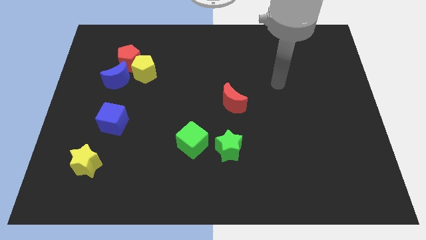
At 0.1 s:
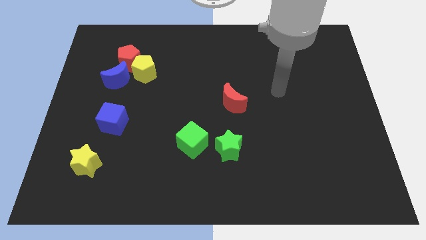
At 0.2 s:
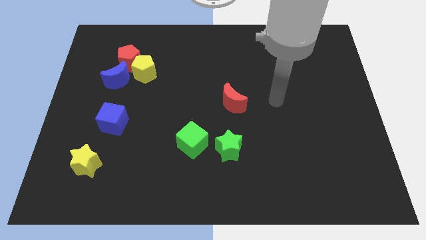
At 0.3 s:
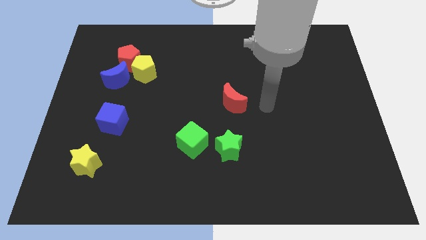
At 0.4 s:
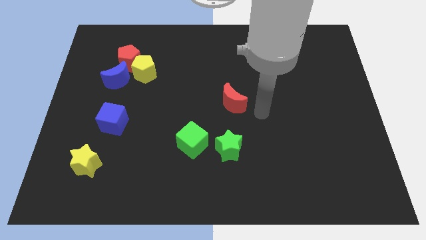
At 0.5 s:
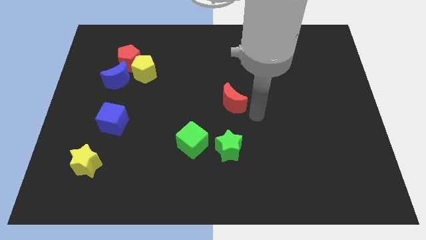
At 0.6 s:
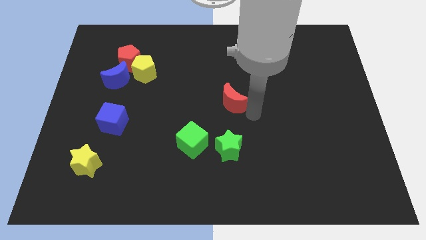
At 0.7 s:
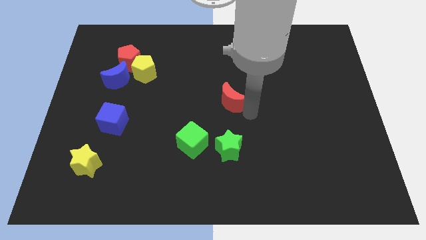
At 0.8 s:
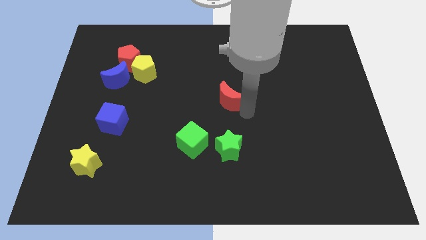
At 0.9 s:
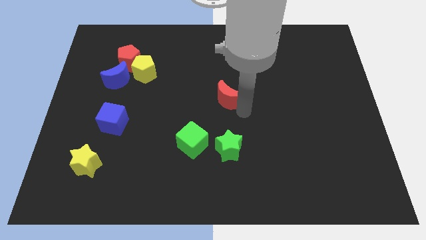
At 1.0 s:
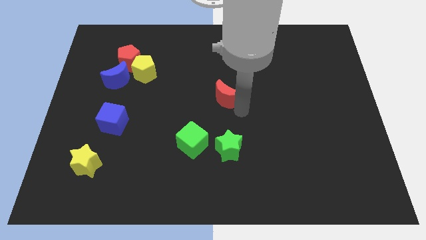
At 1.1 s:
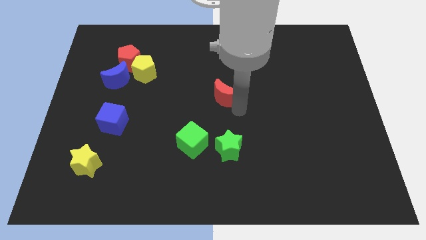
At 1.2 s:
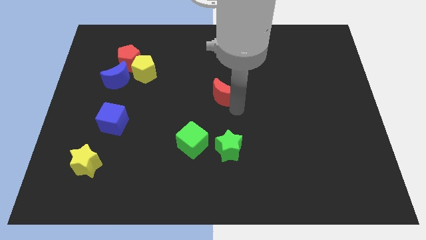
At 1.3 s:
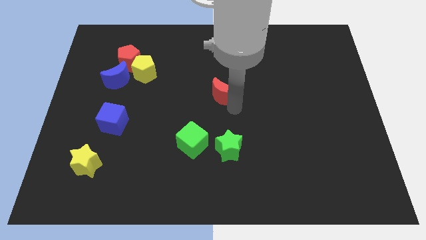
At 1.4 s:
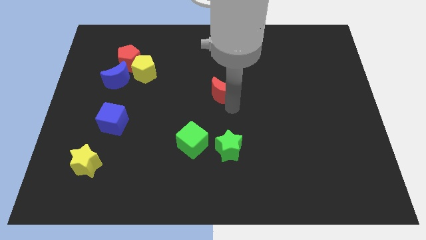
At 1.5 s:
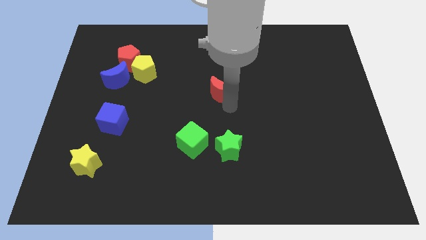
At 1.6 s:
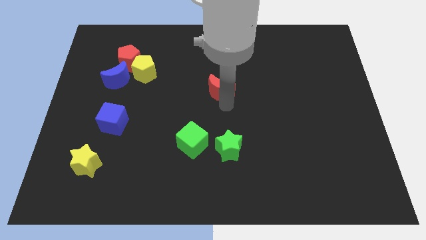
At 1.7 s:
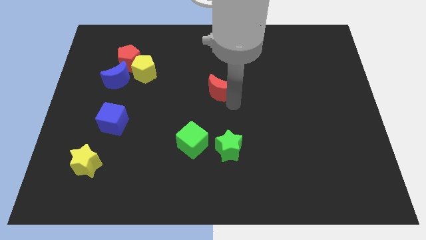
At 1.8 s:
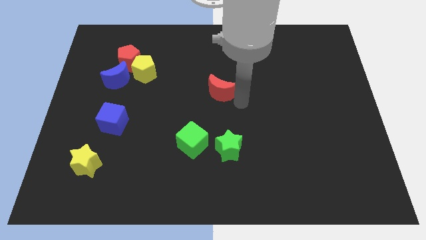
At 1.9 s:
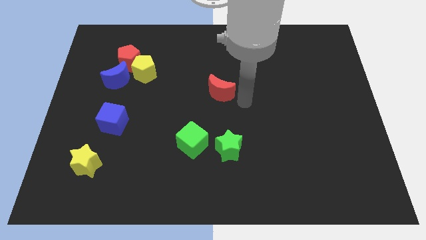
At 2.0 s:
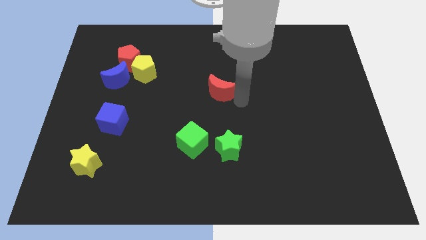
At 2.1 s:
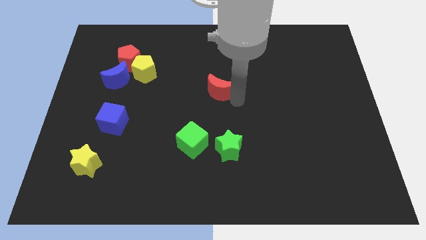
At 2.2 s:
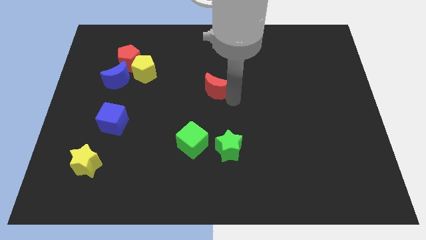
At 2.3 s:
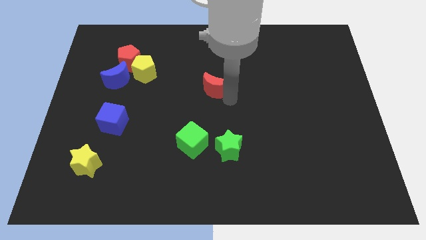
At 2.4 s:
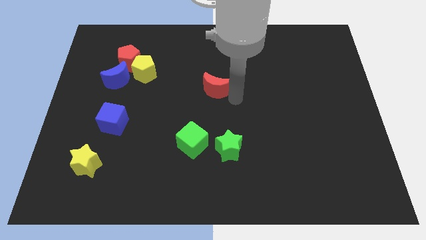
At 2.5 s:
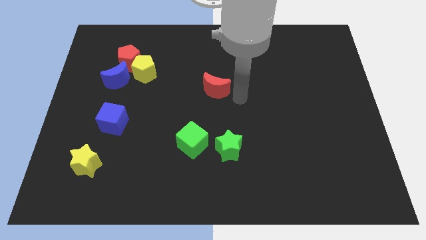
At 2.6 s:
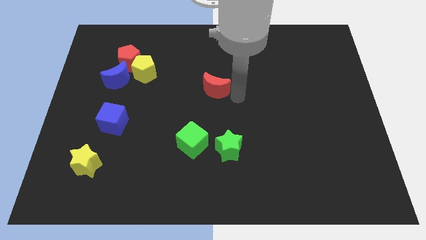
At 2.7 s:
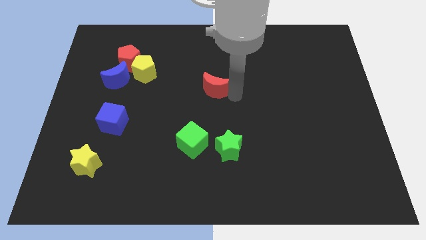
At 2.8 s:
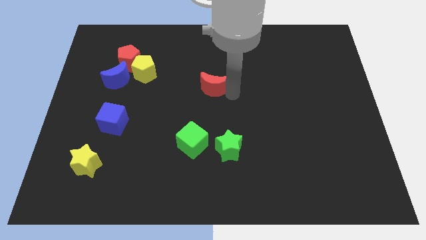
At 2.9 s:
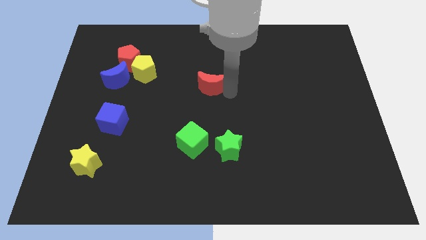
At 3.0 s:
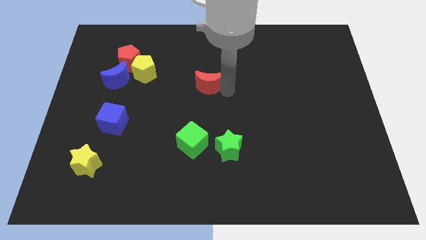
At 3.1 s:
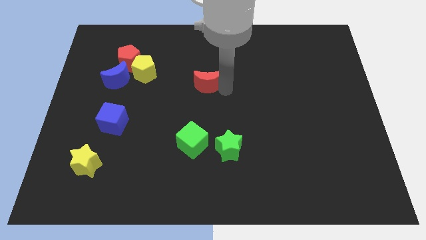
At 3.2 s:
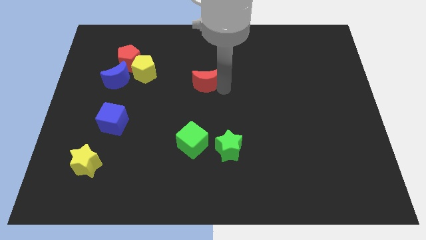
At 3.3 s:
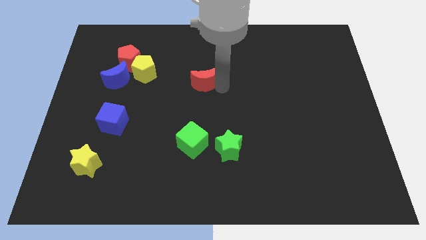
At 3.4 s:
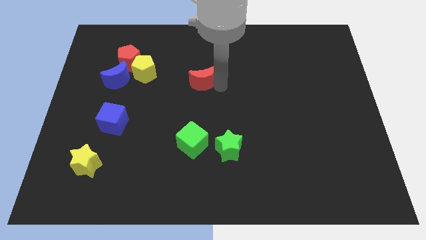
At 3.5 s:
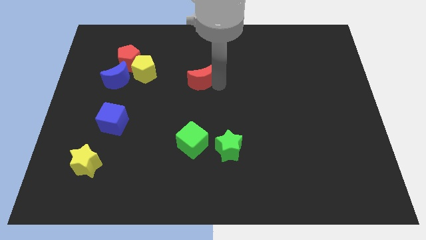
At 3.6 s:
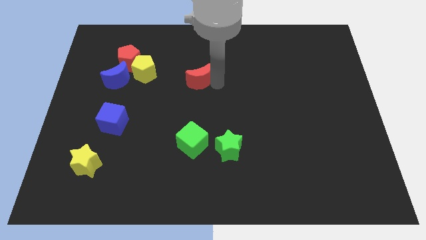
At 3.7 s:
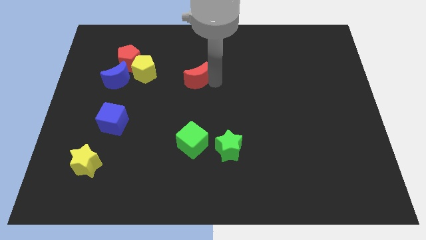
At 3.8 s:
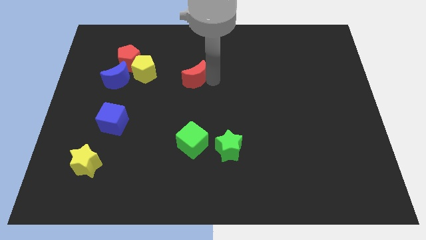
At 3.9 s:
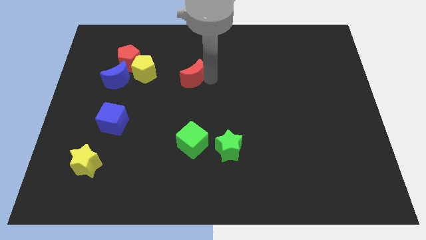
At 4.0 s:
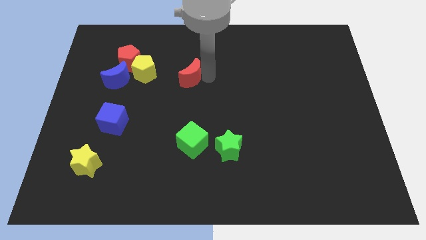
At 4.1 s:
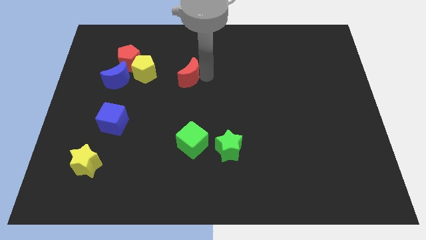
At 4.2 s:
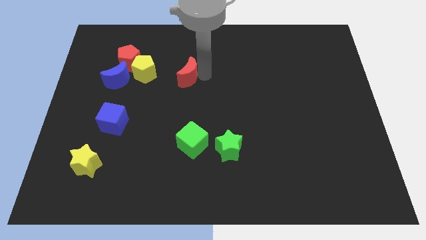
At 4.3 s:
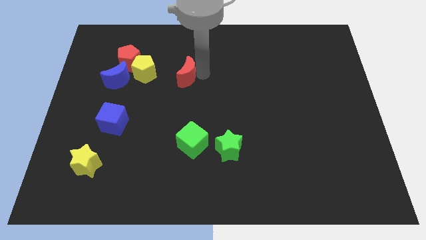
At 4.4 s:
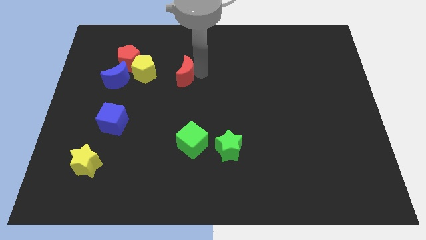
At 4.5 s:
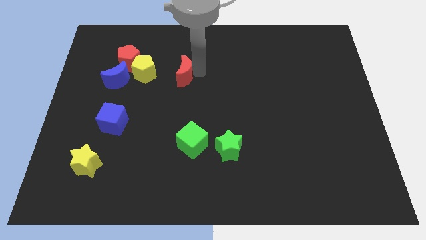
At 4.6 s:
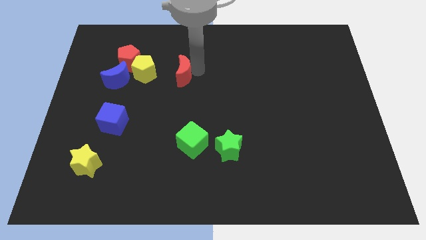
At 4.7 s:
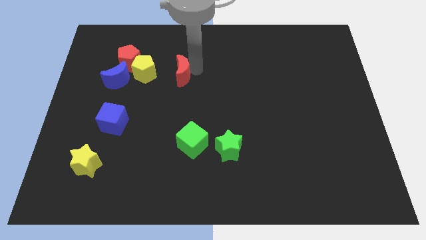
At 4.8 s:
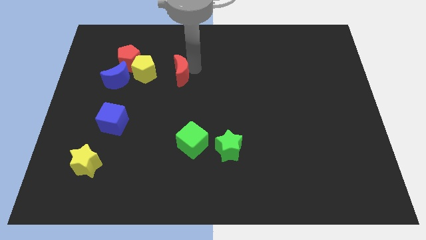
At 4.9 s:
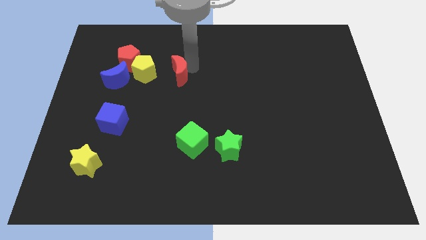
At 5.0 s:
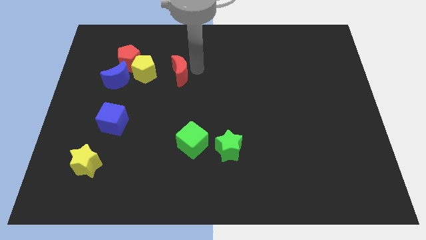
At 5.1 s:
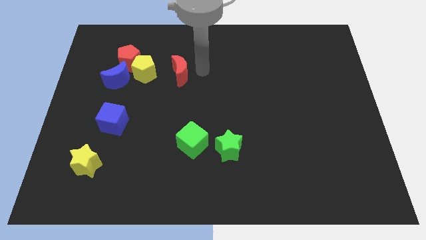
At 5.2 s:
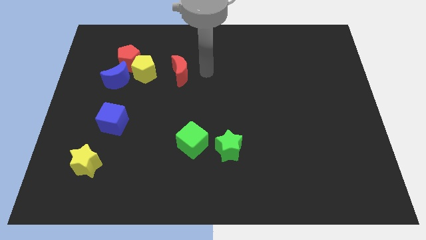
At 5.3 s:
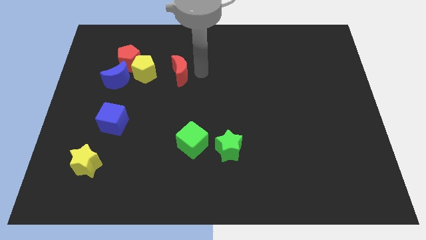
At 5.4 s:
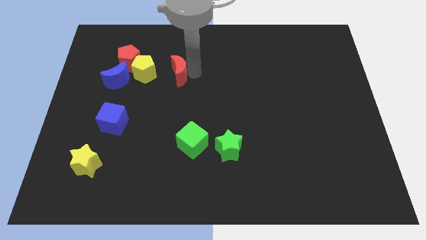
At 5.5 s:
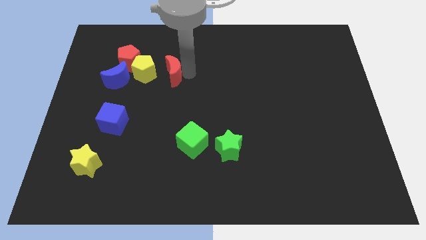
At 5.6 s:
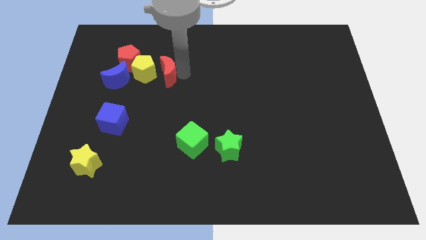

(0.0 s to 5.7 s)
slide the red moon to the yellow pentagon

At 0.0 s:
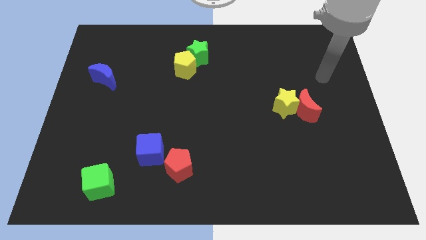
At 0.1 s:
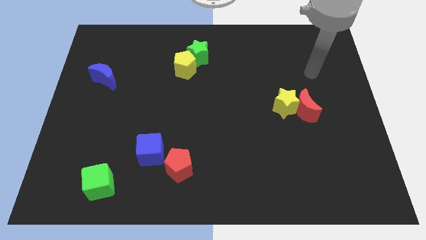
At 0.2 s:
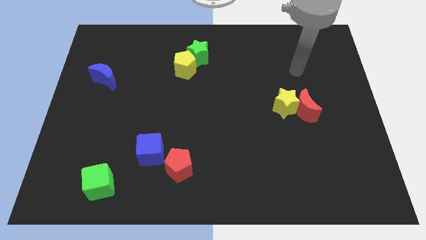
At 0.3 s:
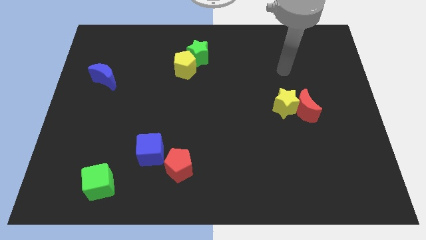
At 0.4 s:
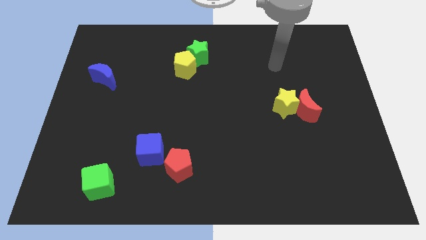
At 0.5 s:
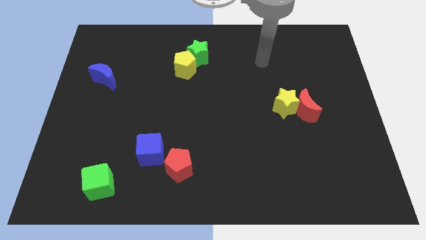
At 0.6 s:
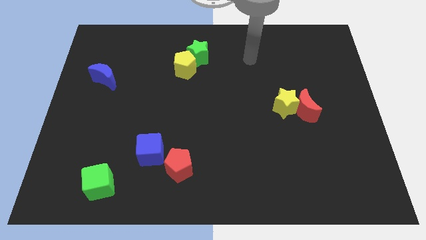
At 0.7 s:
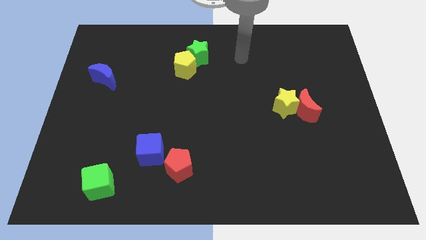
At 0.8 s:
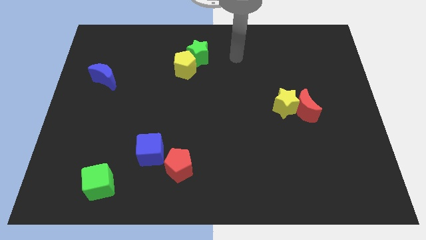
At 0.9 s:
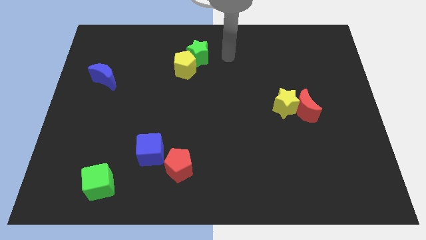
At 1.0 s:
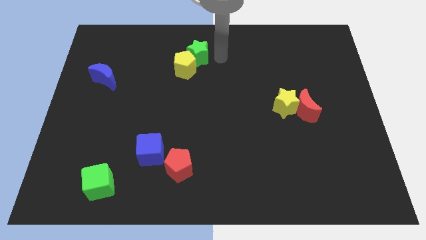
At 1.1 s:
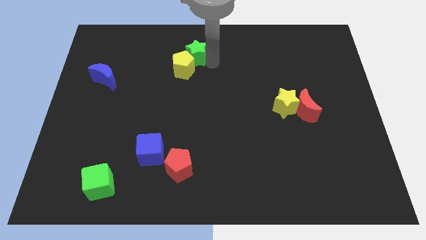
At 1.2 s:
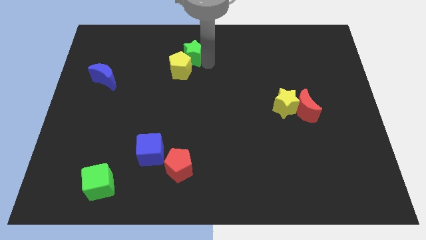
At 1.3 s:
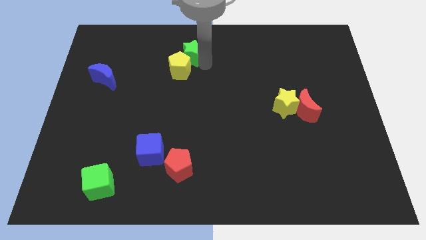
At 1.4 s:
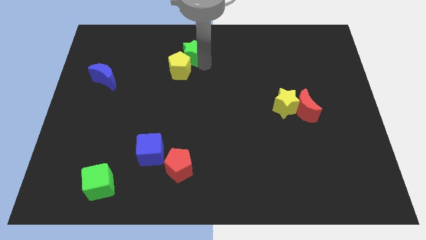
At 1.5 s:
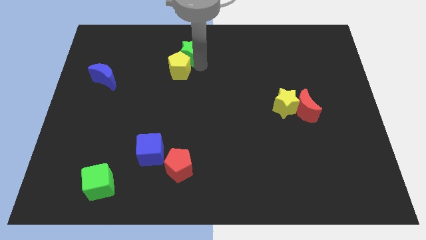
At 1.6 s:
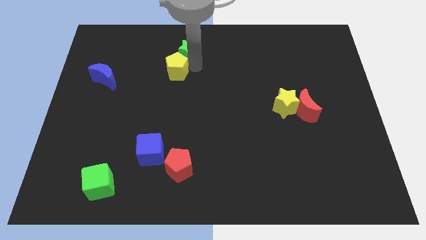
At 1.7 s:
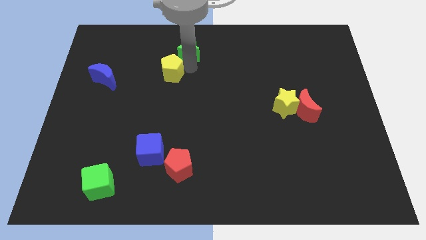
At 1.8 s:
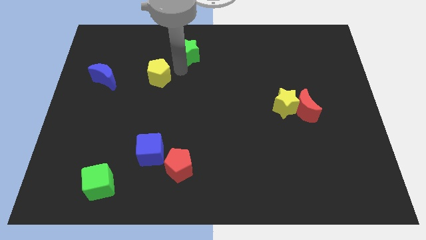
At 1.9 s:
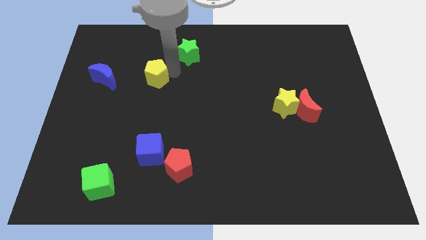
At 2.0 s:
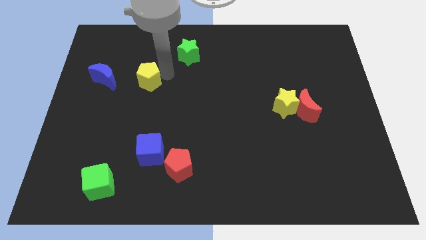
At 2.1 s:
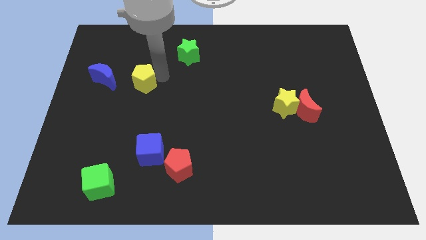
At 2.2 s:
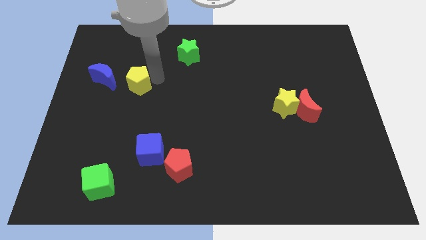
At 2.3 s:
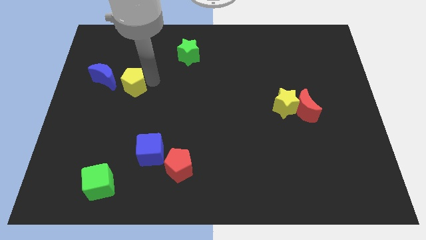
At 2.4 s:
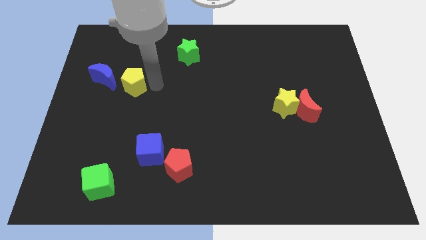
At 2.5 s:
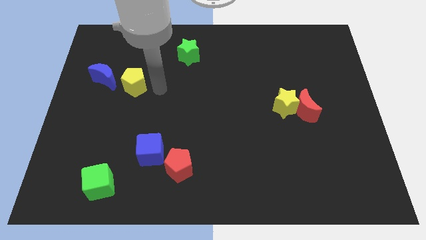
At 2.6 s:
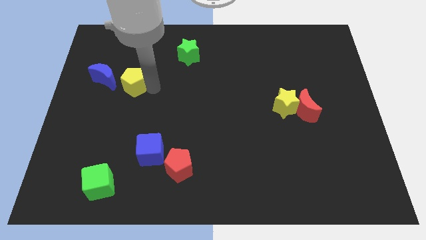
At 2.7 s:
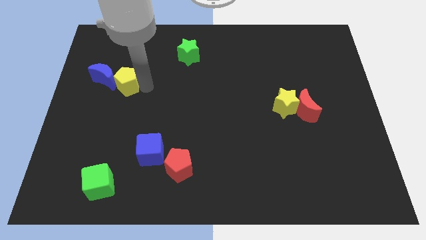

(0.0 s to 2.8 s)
move the yellow pentagon to the blue moon
